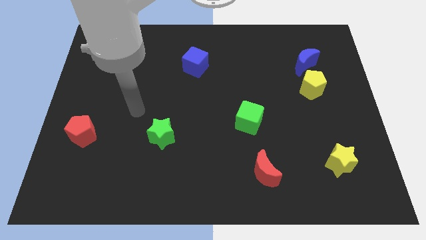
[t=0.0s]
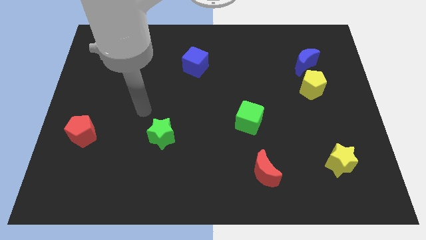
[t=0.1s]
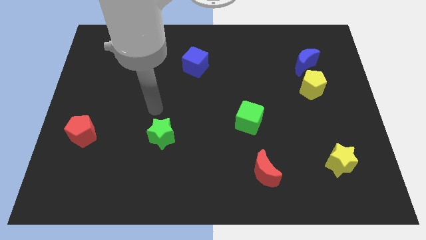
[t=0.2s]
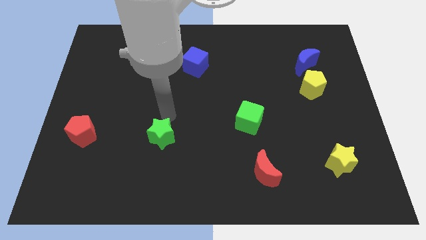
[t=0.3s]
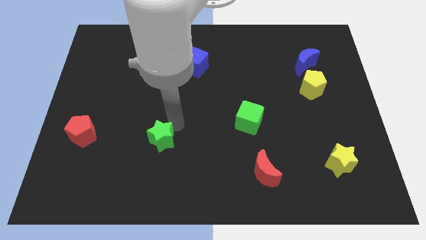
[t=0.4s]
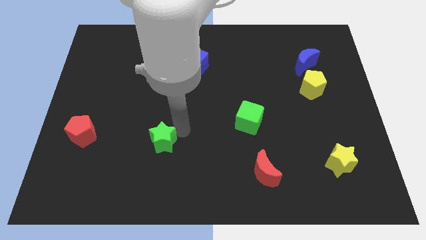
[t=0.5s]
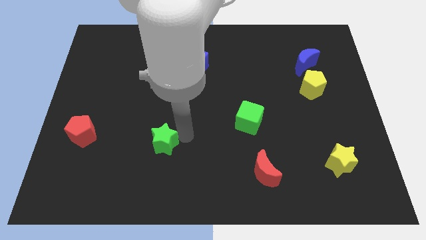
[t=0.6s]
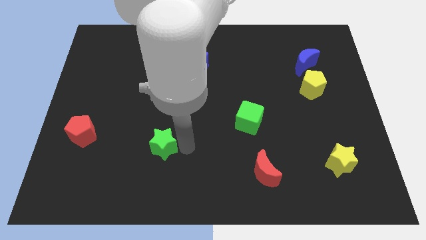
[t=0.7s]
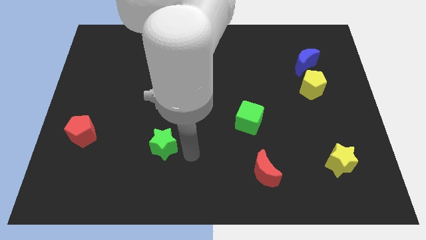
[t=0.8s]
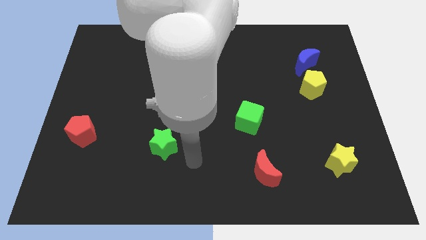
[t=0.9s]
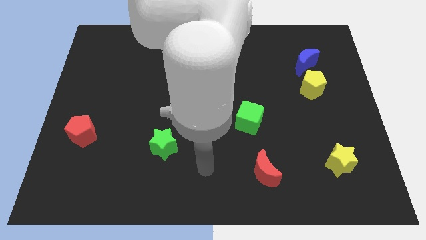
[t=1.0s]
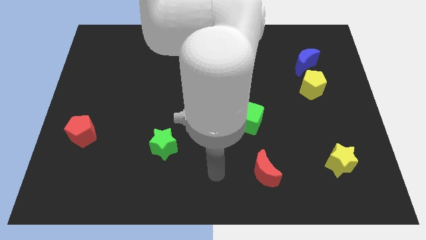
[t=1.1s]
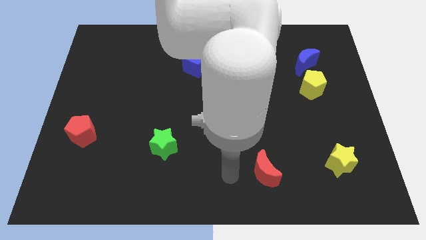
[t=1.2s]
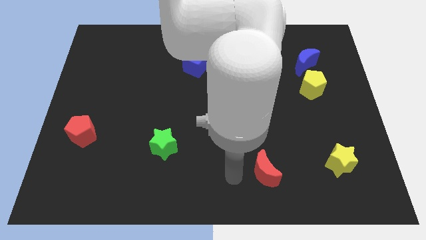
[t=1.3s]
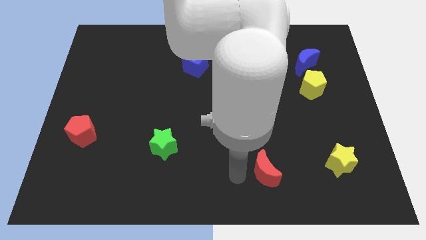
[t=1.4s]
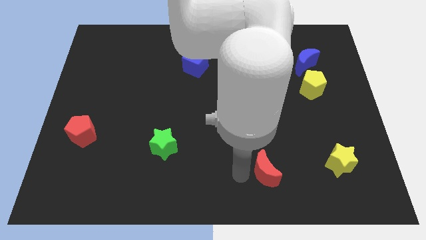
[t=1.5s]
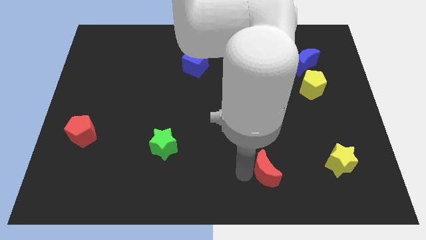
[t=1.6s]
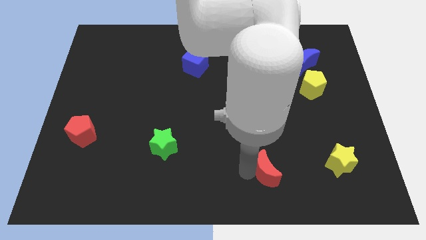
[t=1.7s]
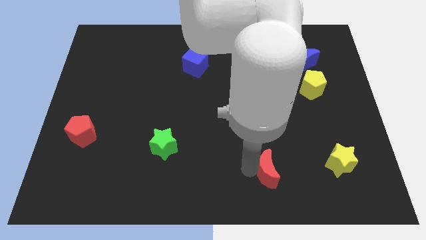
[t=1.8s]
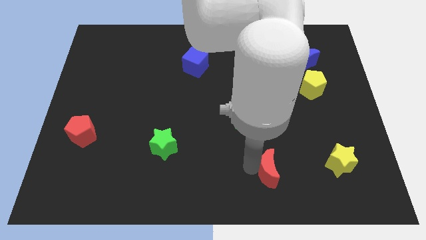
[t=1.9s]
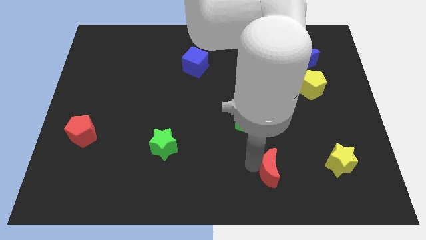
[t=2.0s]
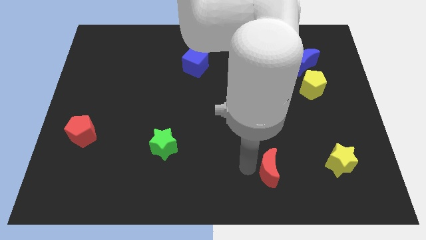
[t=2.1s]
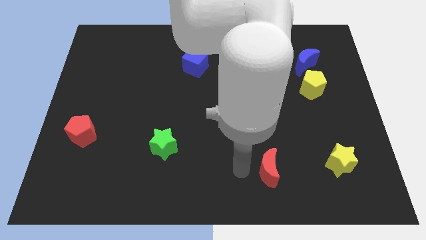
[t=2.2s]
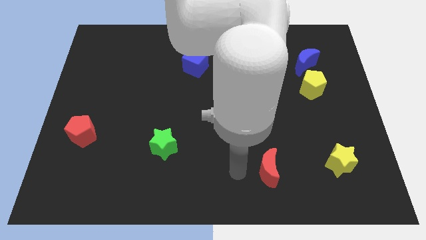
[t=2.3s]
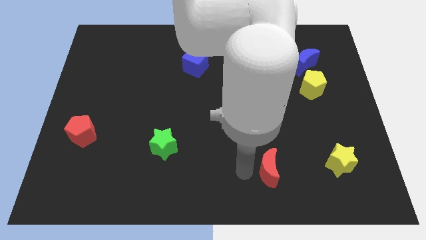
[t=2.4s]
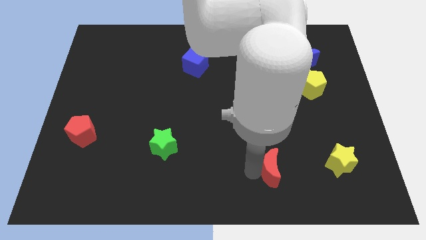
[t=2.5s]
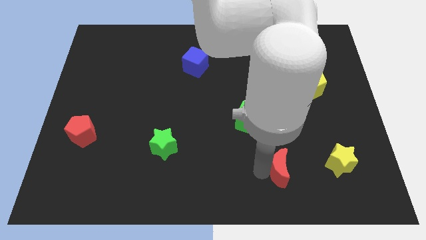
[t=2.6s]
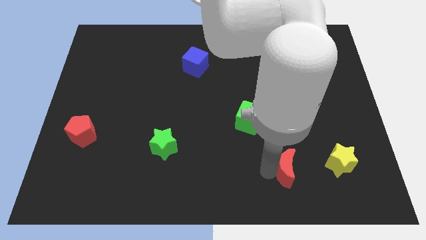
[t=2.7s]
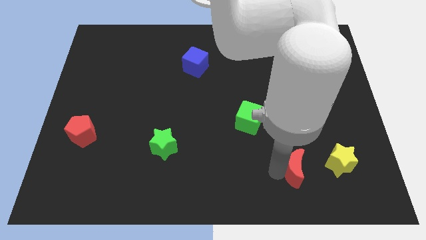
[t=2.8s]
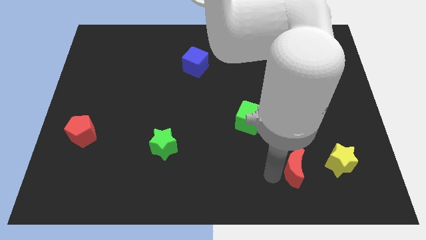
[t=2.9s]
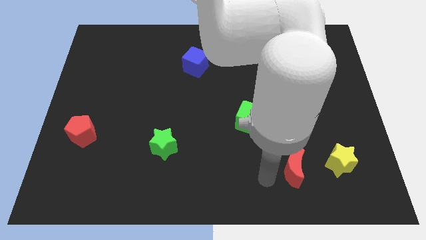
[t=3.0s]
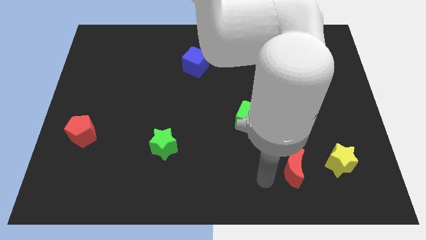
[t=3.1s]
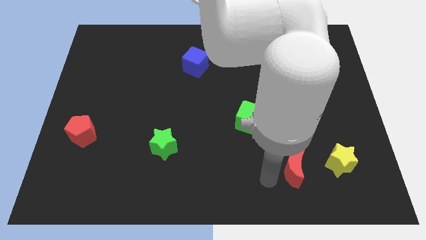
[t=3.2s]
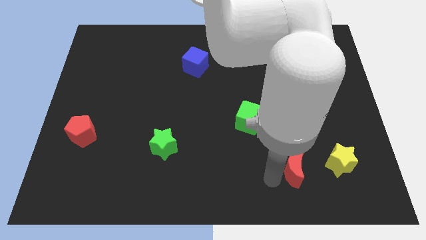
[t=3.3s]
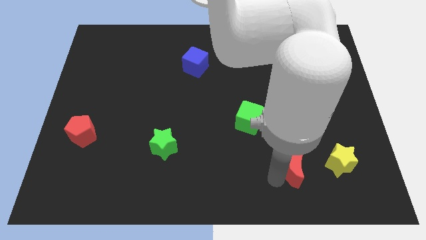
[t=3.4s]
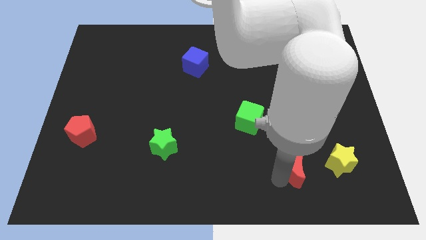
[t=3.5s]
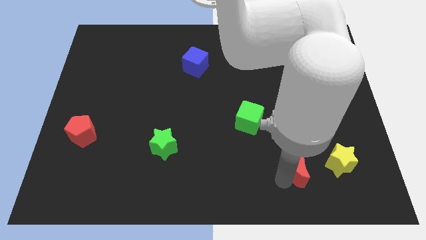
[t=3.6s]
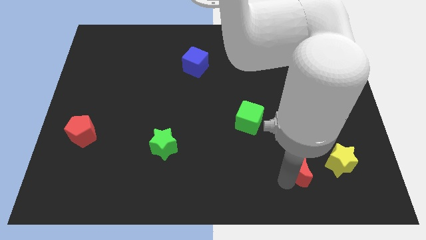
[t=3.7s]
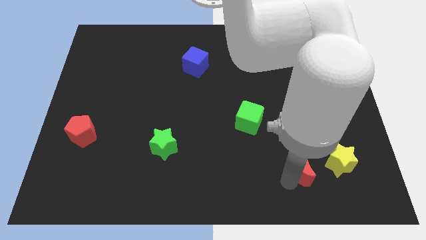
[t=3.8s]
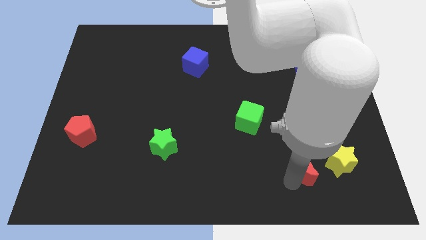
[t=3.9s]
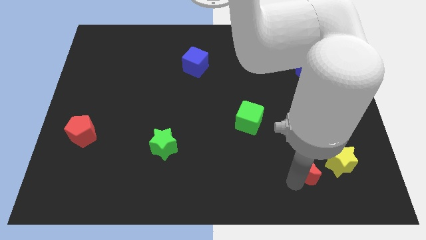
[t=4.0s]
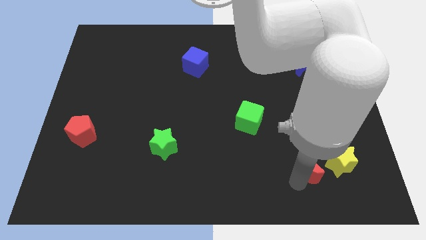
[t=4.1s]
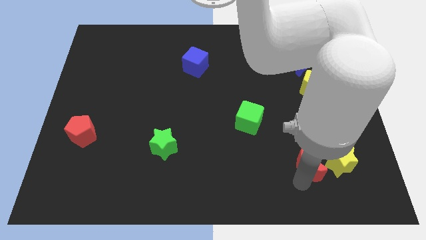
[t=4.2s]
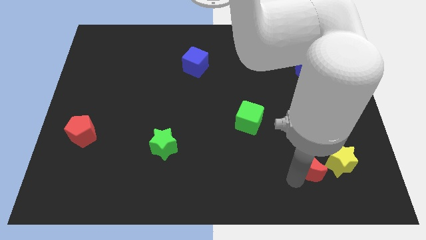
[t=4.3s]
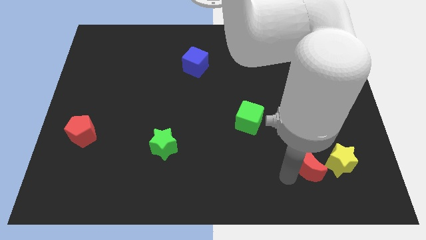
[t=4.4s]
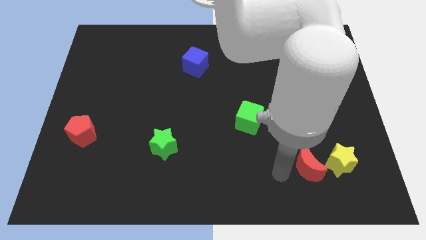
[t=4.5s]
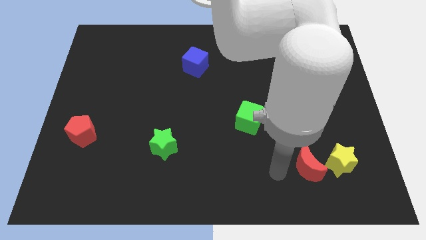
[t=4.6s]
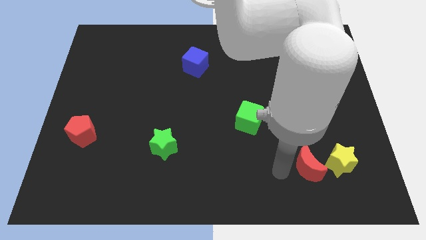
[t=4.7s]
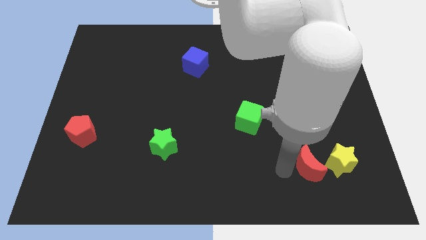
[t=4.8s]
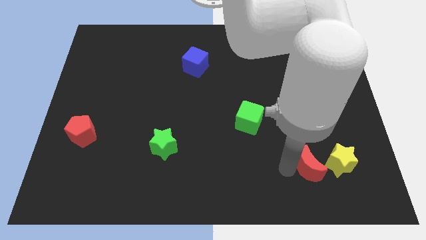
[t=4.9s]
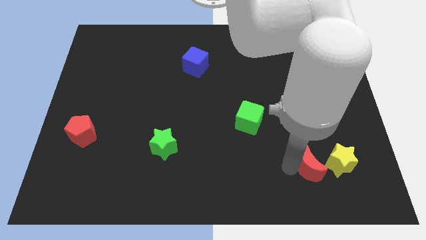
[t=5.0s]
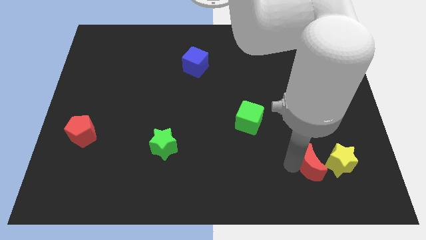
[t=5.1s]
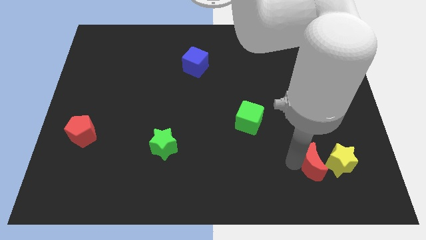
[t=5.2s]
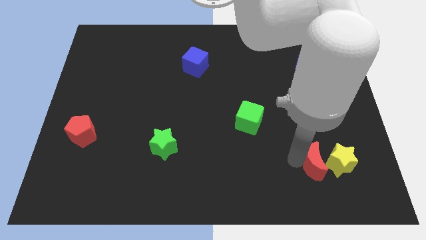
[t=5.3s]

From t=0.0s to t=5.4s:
push the red moon close to the yellow star

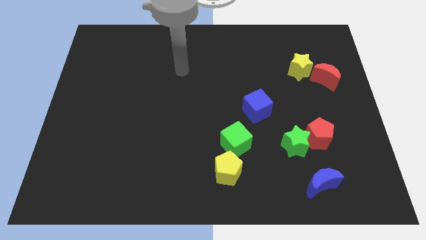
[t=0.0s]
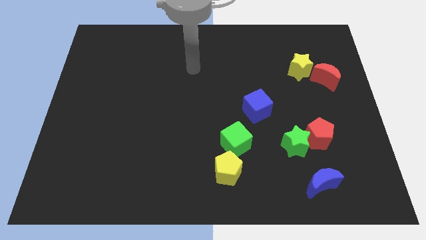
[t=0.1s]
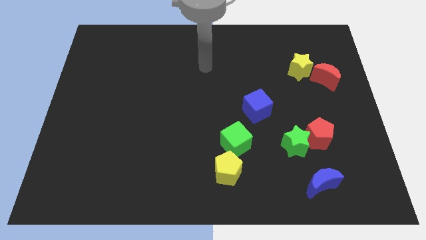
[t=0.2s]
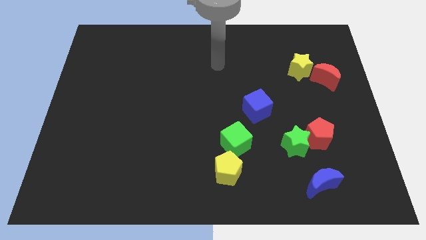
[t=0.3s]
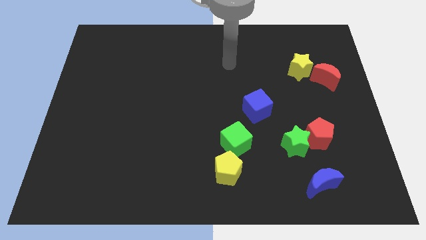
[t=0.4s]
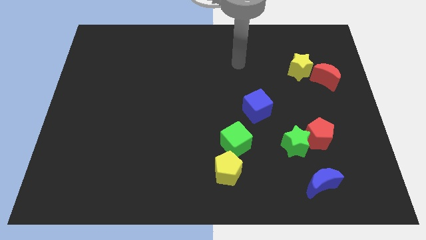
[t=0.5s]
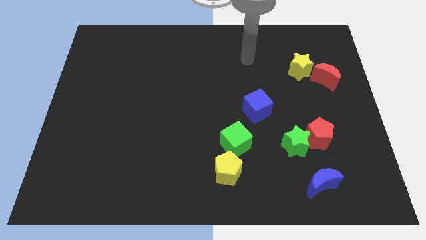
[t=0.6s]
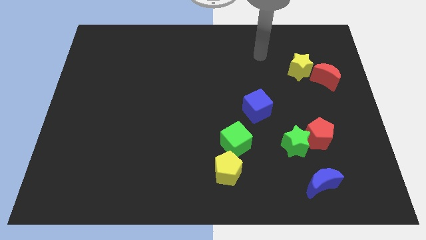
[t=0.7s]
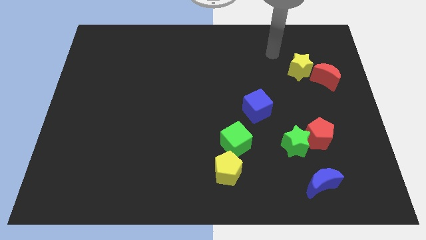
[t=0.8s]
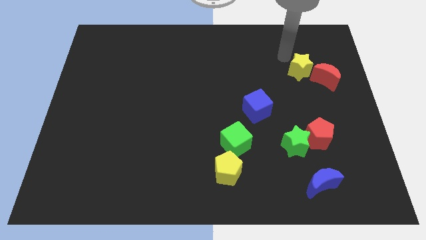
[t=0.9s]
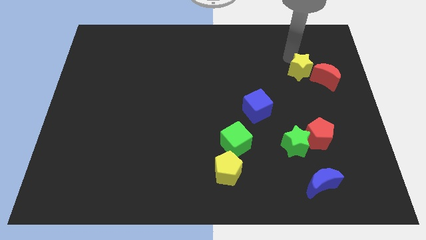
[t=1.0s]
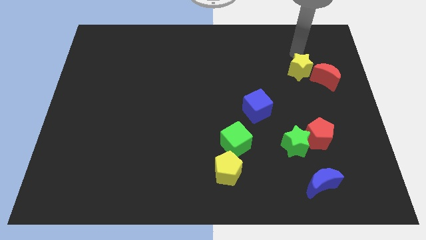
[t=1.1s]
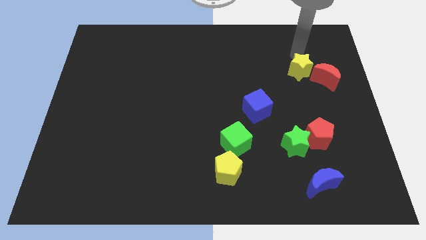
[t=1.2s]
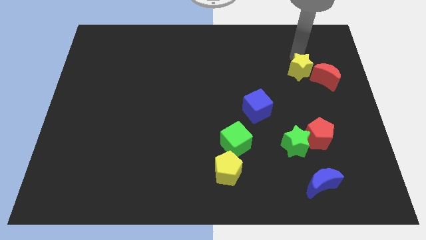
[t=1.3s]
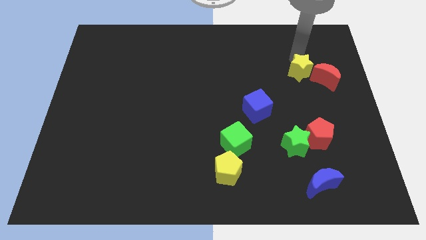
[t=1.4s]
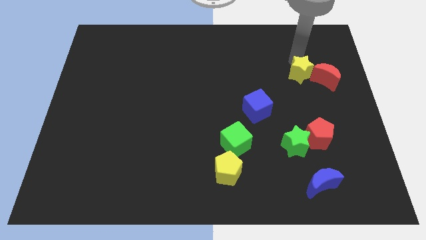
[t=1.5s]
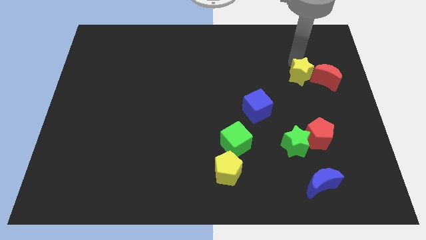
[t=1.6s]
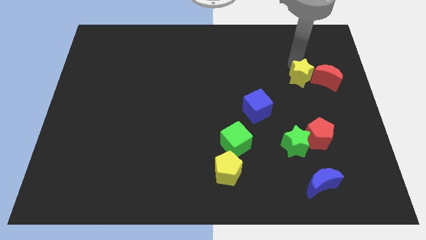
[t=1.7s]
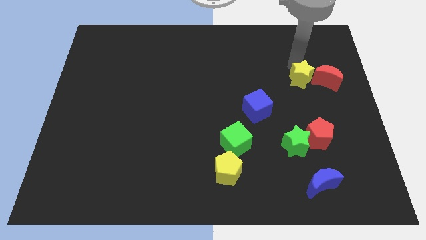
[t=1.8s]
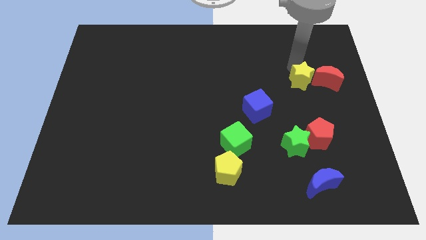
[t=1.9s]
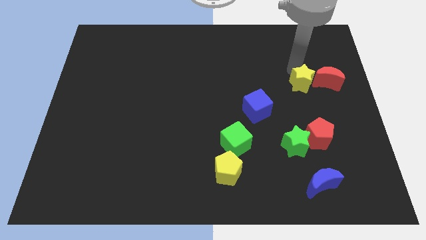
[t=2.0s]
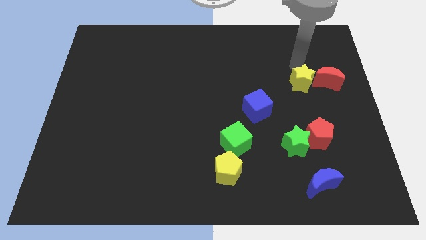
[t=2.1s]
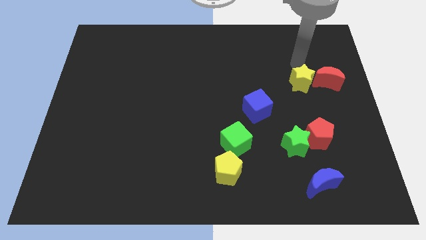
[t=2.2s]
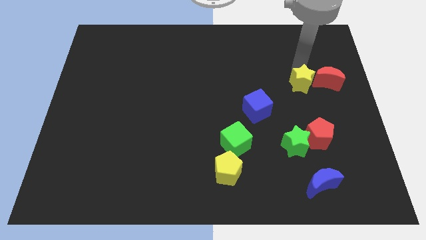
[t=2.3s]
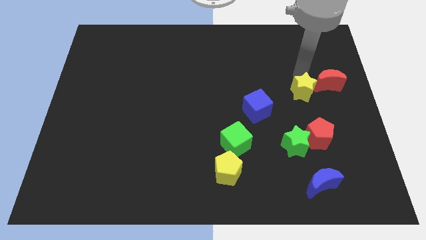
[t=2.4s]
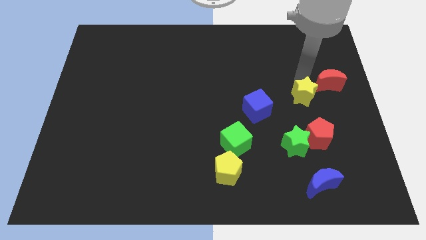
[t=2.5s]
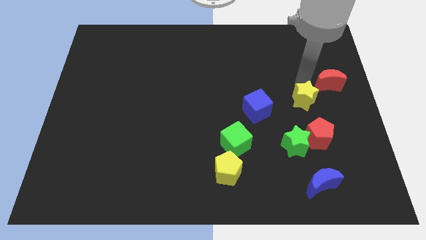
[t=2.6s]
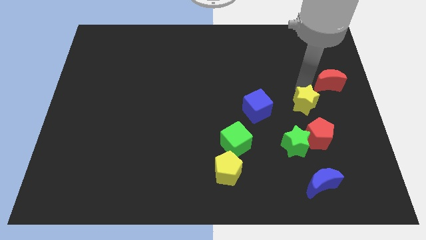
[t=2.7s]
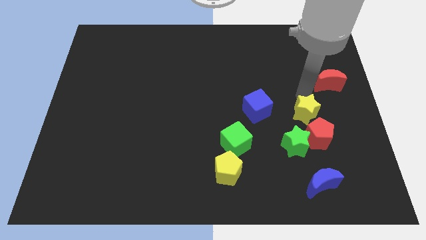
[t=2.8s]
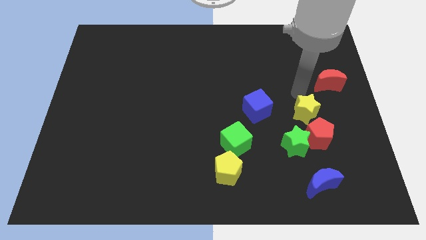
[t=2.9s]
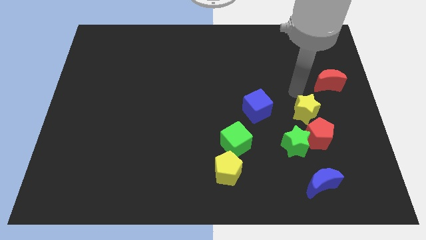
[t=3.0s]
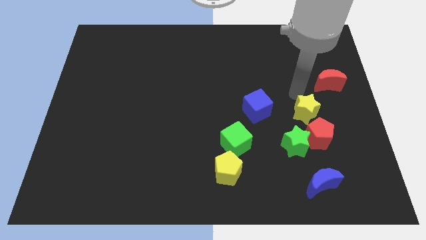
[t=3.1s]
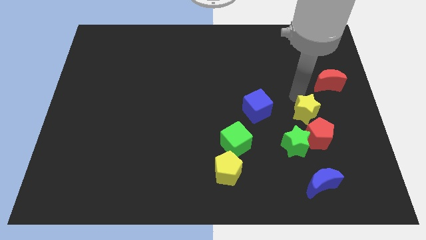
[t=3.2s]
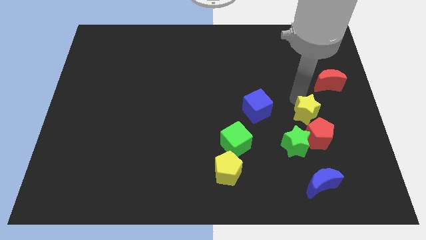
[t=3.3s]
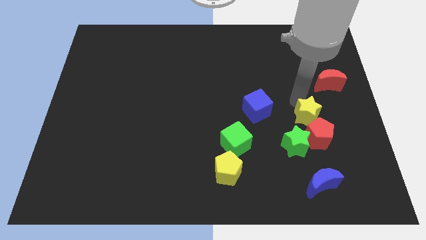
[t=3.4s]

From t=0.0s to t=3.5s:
move the yellow star next to the red pentagon
